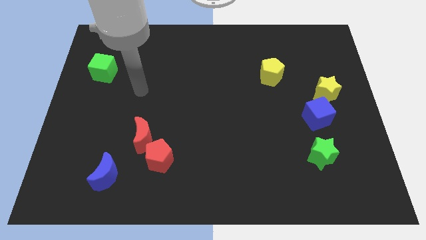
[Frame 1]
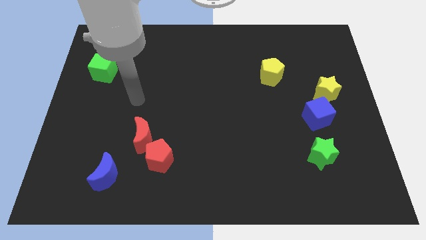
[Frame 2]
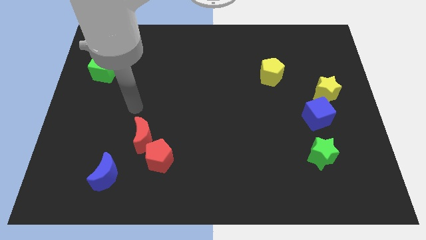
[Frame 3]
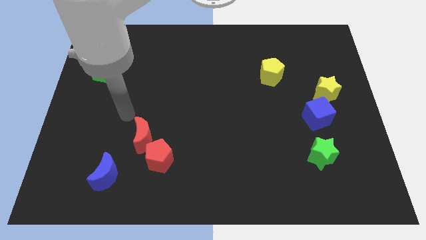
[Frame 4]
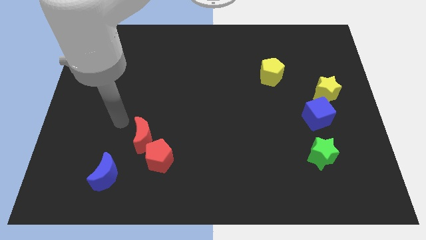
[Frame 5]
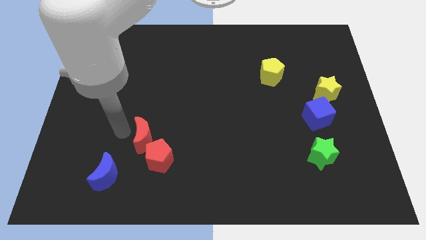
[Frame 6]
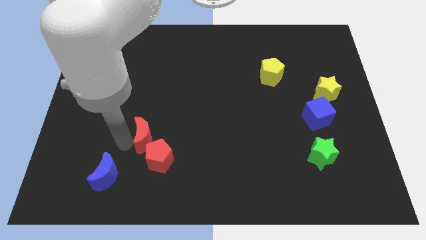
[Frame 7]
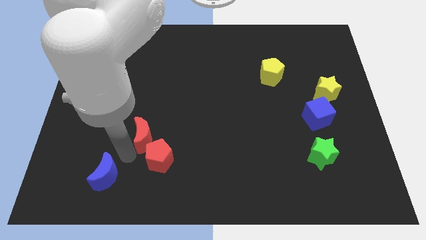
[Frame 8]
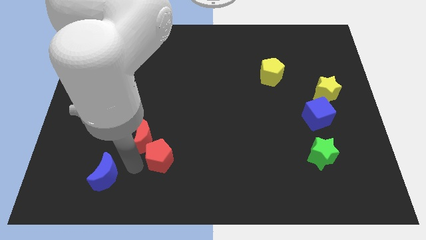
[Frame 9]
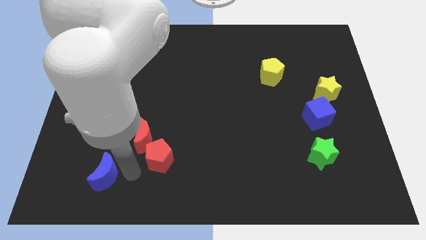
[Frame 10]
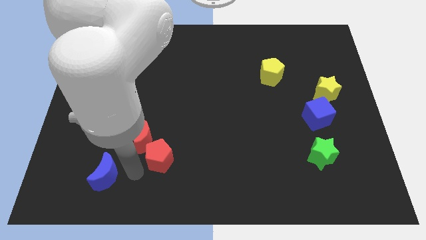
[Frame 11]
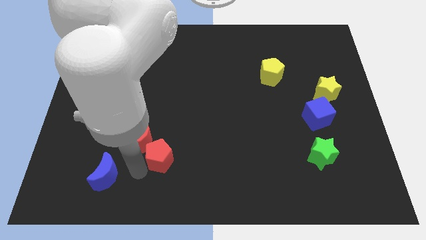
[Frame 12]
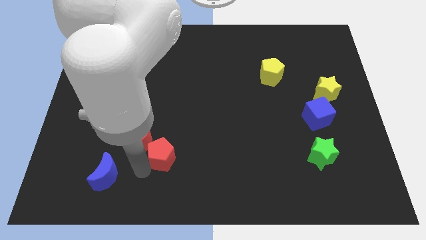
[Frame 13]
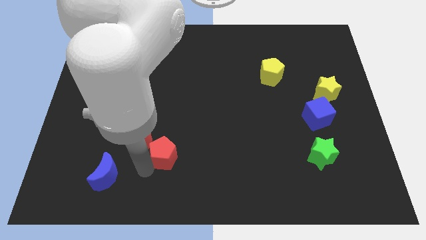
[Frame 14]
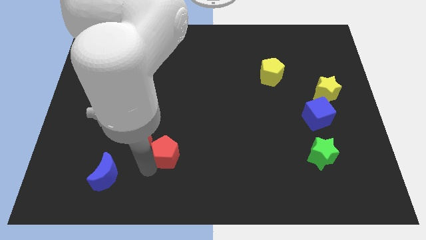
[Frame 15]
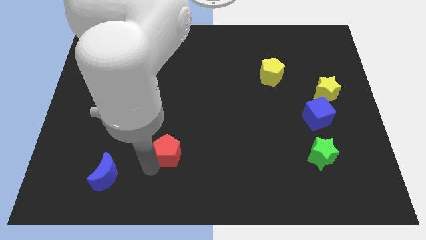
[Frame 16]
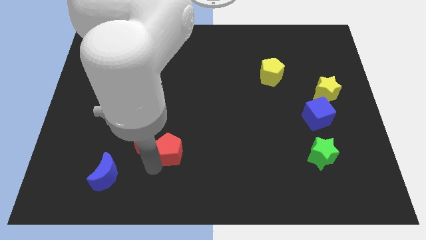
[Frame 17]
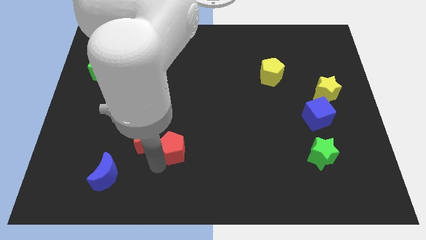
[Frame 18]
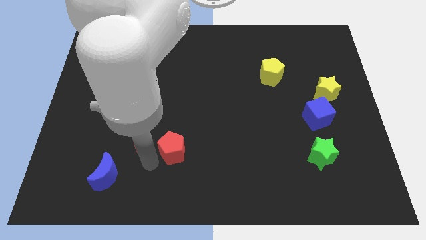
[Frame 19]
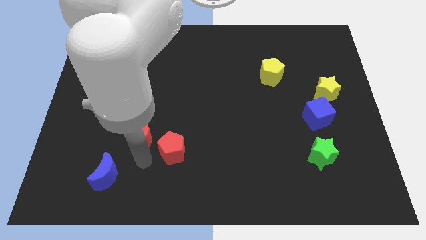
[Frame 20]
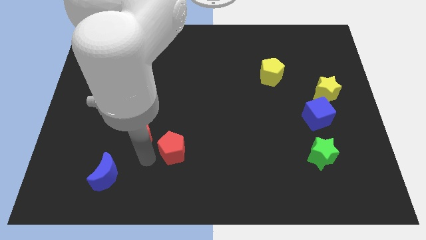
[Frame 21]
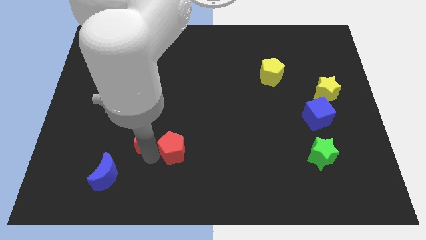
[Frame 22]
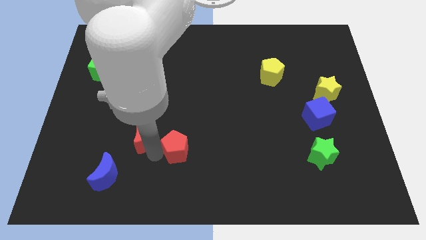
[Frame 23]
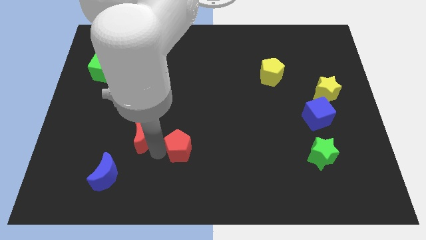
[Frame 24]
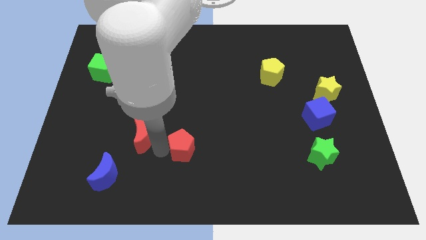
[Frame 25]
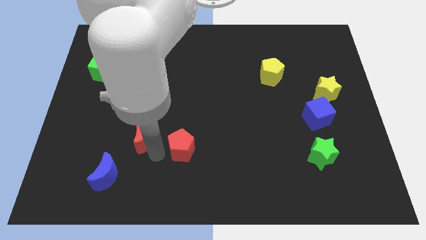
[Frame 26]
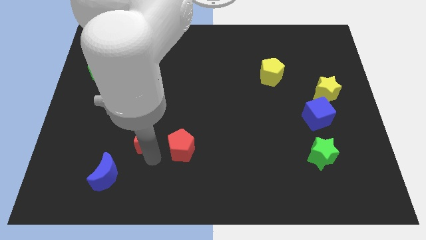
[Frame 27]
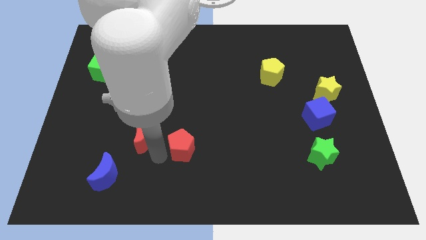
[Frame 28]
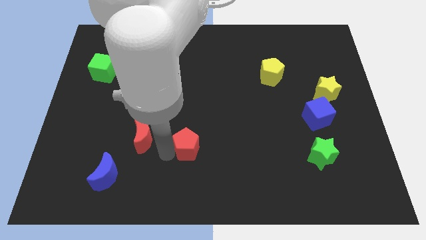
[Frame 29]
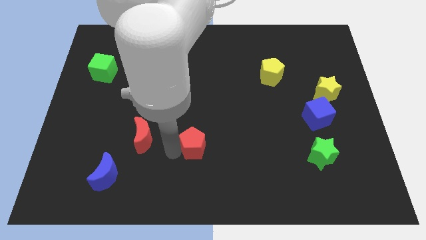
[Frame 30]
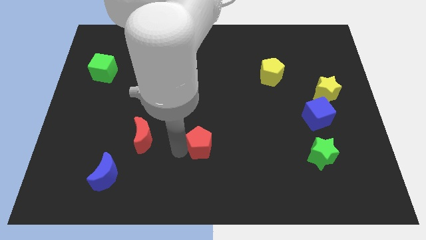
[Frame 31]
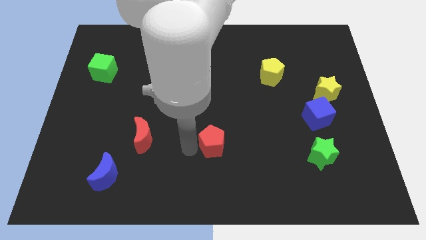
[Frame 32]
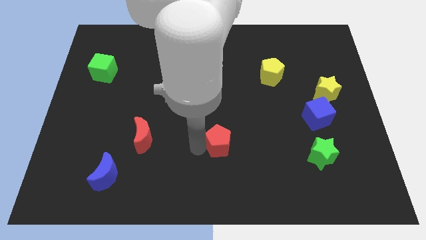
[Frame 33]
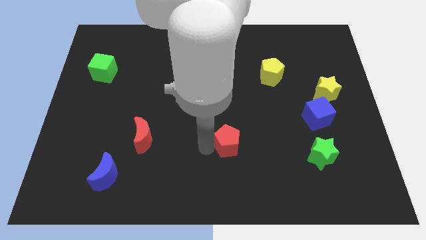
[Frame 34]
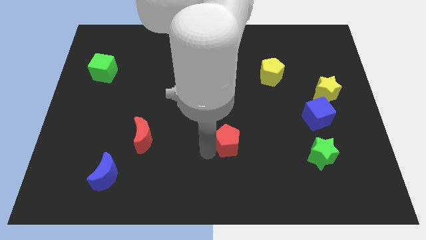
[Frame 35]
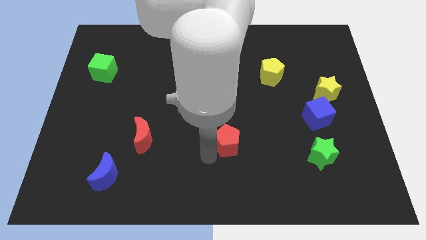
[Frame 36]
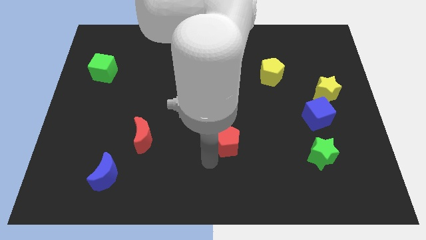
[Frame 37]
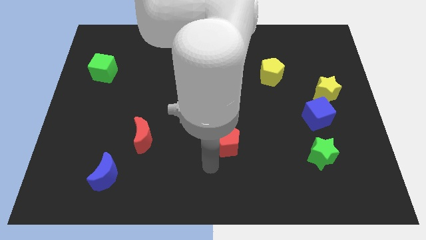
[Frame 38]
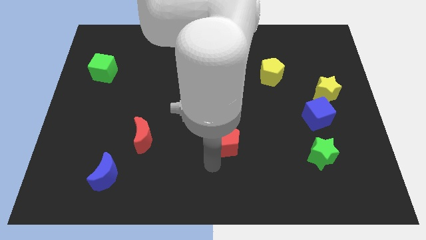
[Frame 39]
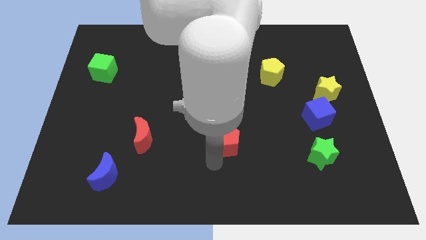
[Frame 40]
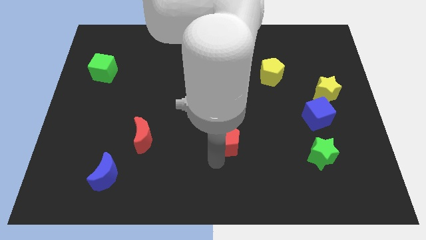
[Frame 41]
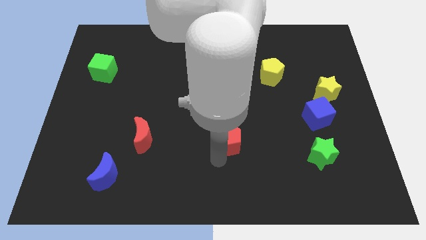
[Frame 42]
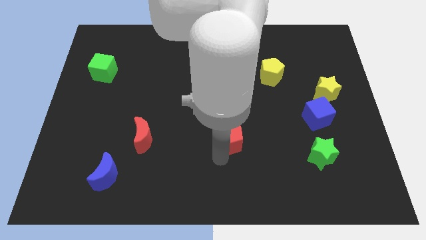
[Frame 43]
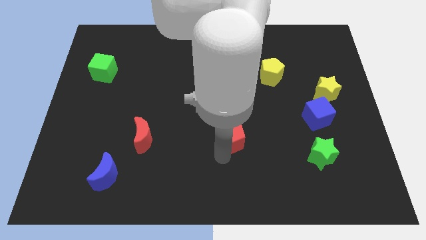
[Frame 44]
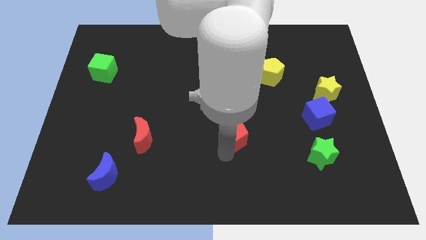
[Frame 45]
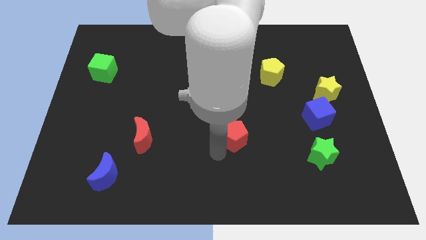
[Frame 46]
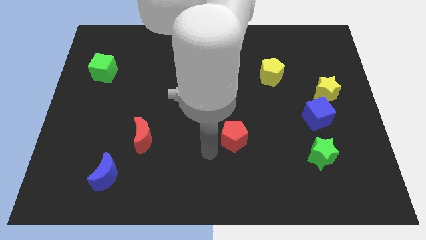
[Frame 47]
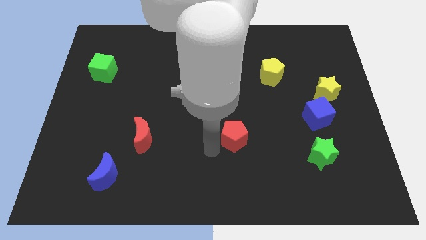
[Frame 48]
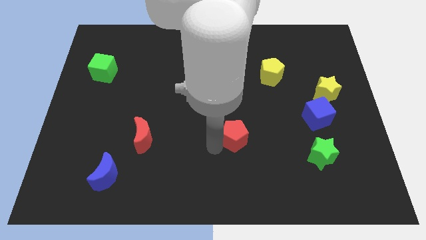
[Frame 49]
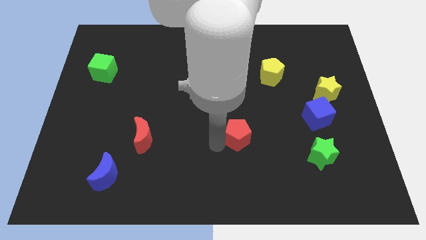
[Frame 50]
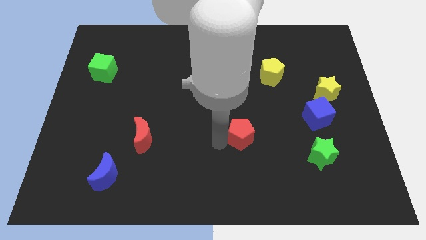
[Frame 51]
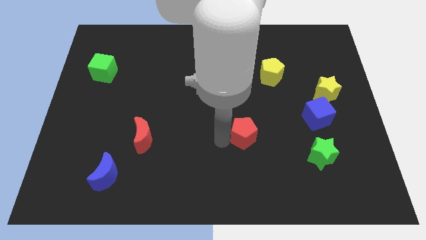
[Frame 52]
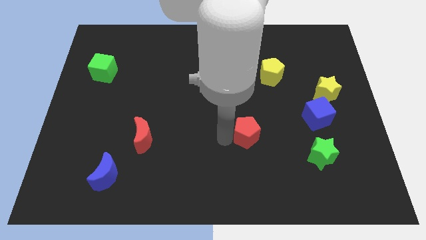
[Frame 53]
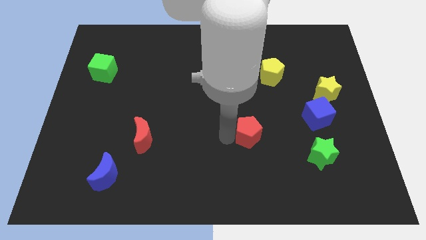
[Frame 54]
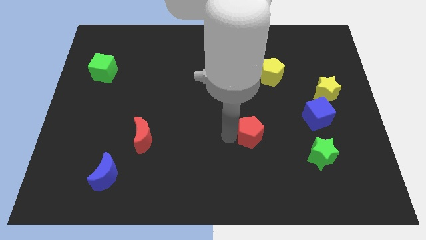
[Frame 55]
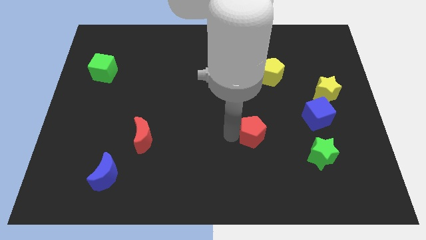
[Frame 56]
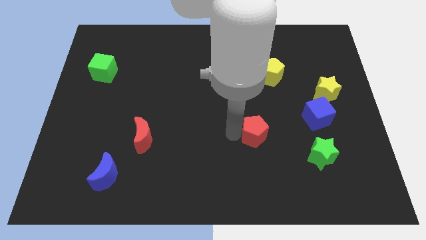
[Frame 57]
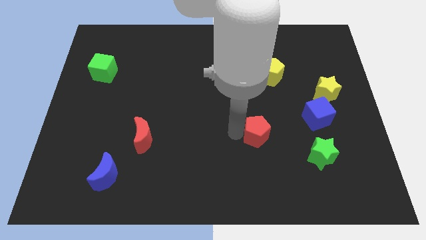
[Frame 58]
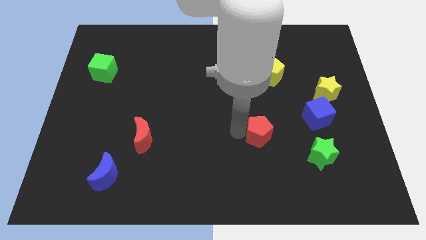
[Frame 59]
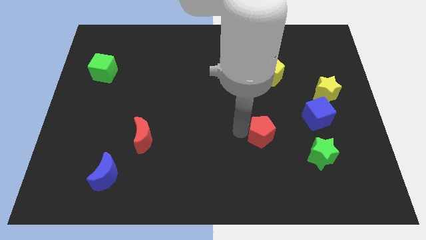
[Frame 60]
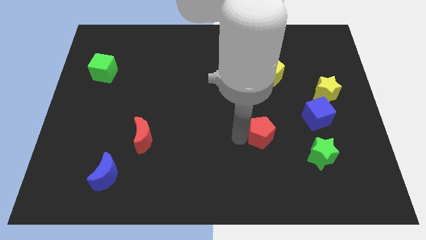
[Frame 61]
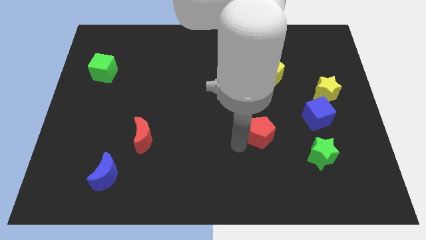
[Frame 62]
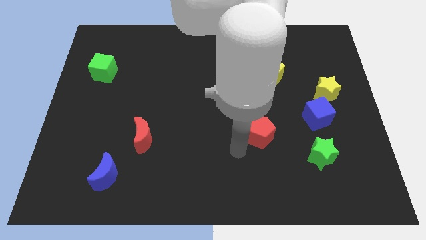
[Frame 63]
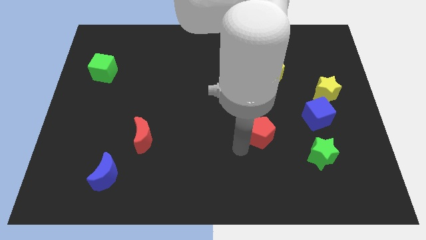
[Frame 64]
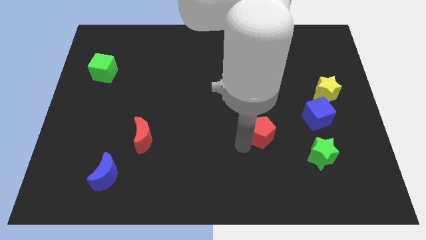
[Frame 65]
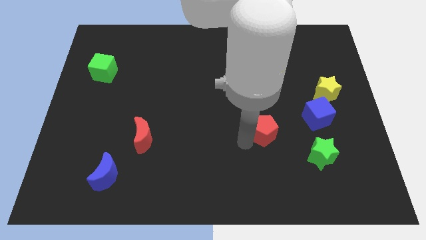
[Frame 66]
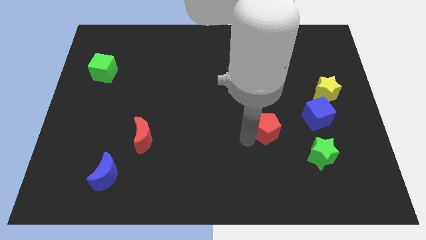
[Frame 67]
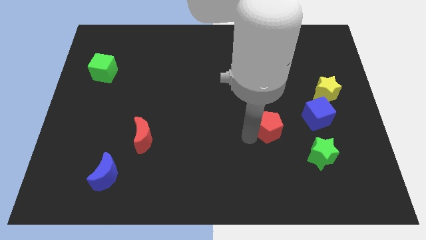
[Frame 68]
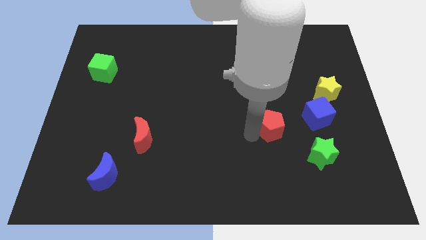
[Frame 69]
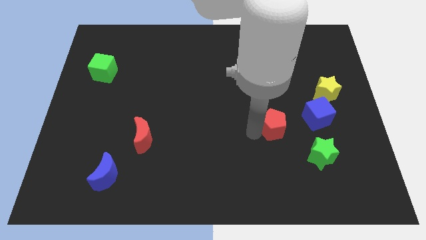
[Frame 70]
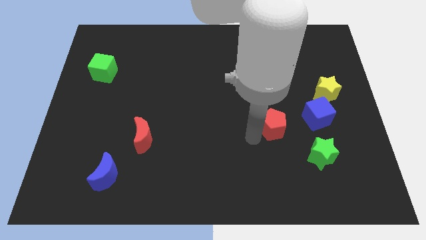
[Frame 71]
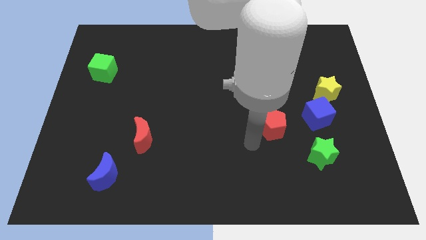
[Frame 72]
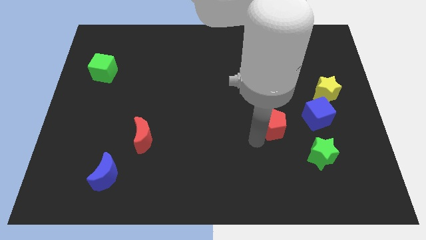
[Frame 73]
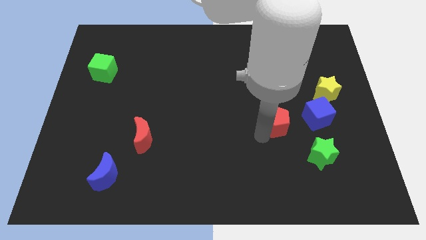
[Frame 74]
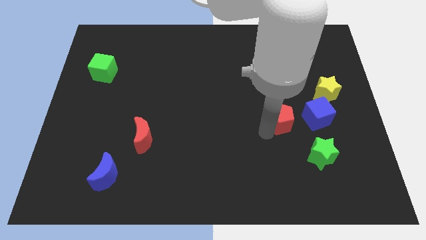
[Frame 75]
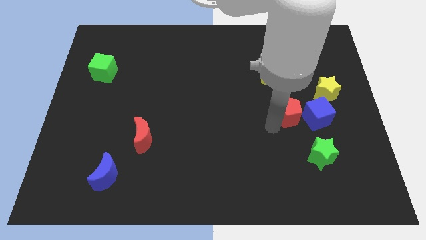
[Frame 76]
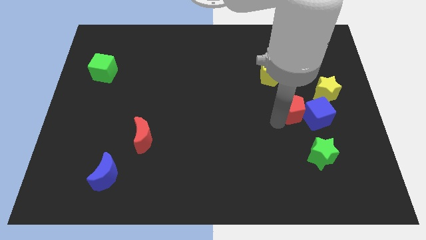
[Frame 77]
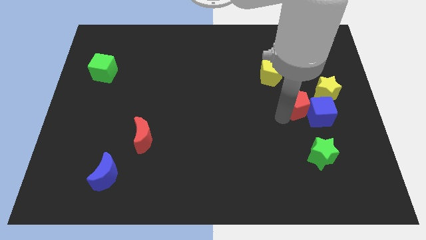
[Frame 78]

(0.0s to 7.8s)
move the red pentagon to the top of the green star
